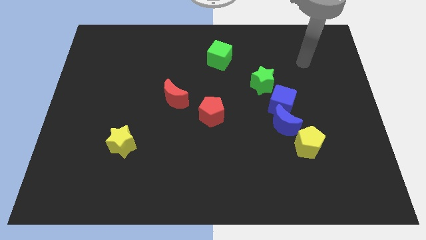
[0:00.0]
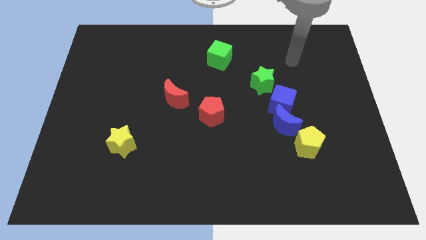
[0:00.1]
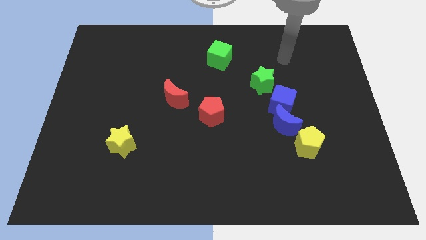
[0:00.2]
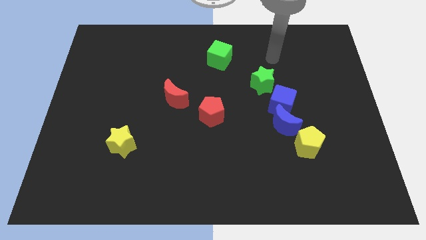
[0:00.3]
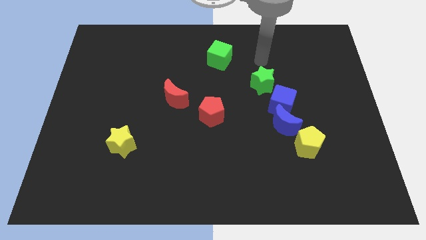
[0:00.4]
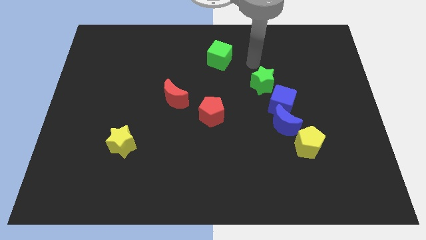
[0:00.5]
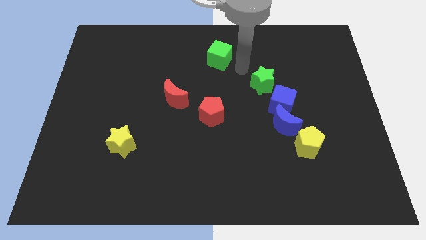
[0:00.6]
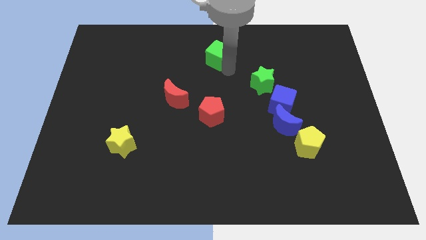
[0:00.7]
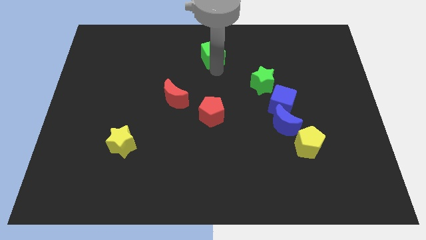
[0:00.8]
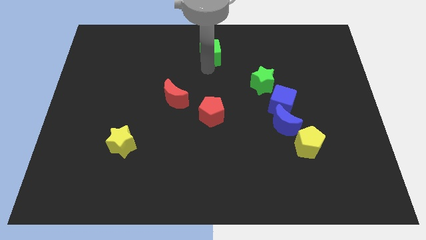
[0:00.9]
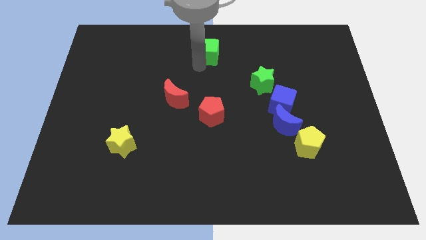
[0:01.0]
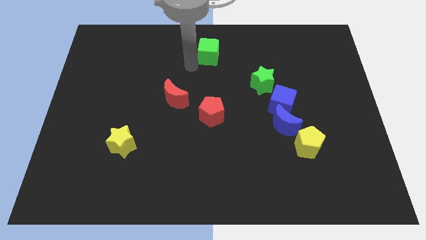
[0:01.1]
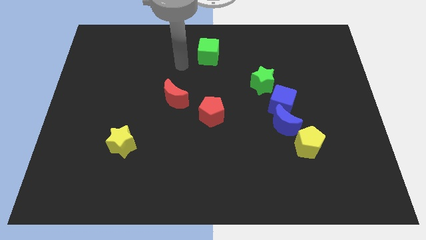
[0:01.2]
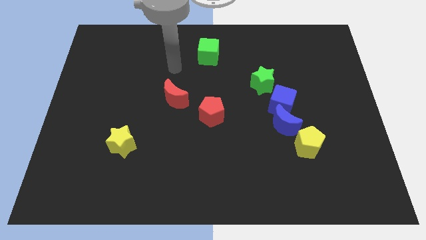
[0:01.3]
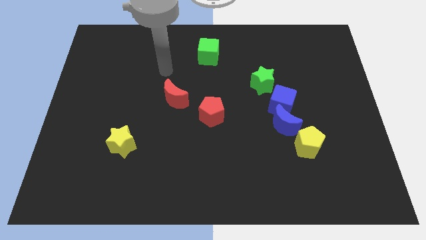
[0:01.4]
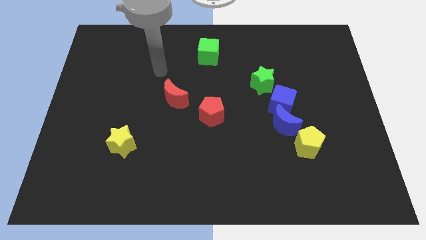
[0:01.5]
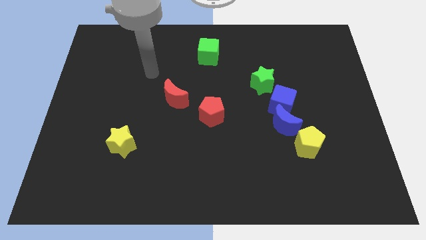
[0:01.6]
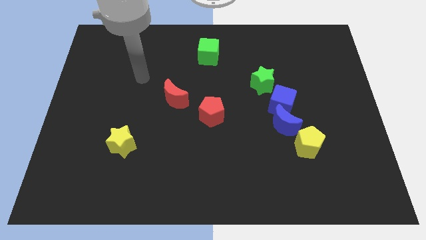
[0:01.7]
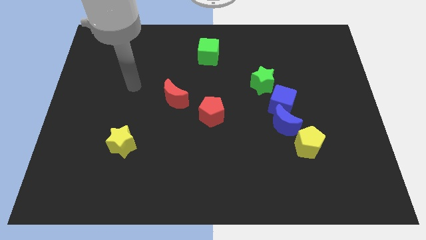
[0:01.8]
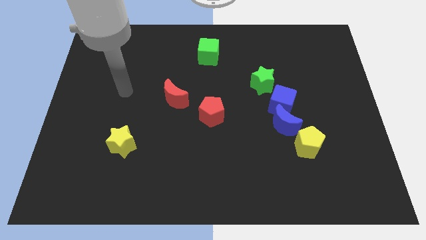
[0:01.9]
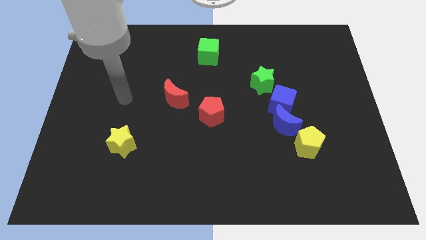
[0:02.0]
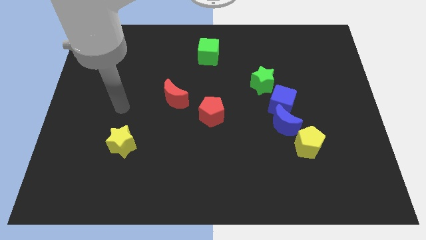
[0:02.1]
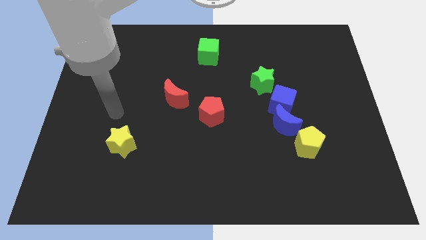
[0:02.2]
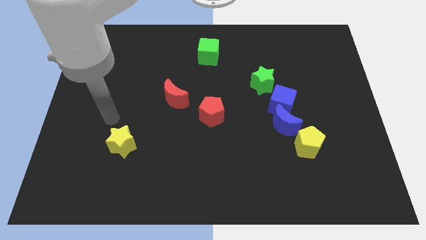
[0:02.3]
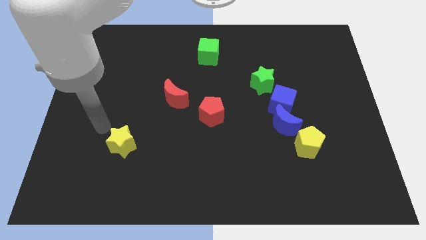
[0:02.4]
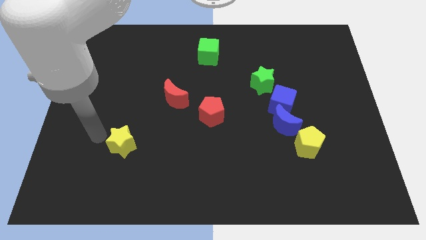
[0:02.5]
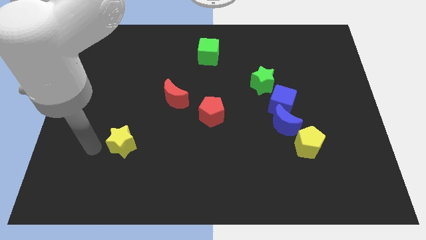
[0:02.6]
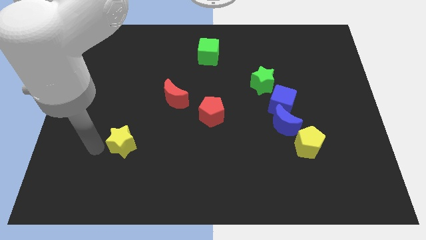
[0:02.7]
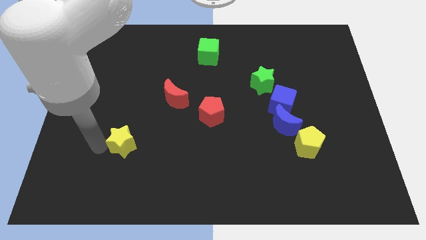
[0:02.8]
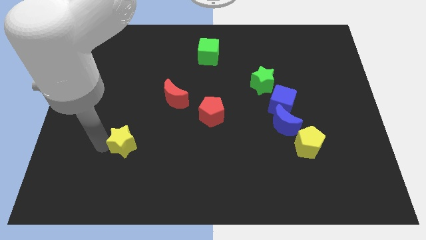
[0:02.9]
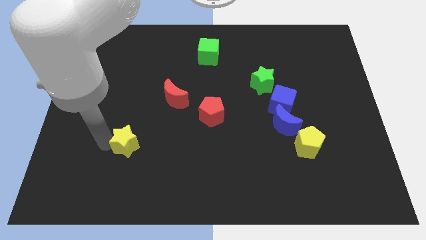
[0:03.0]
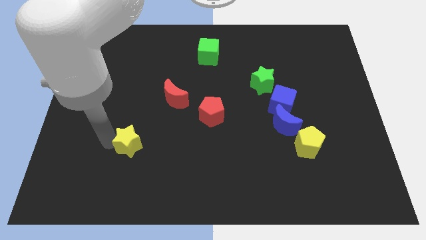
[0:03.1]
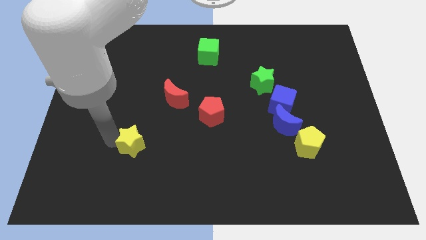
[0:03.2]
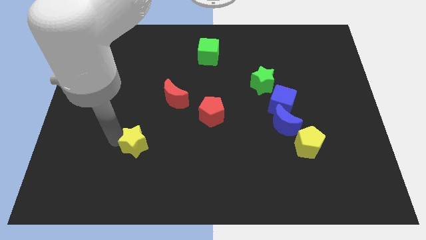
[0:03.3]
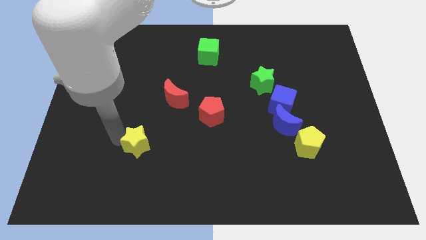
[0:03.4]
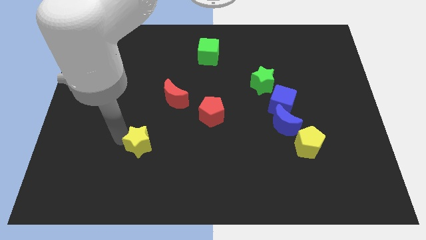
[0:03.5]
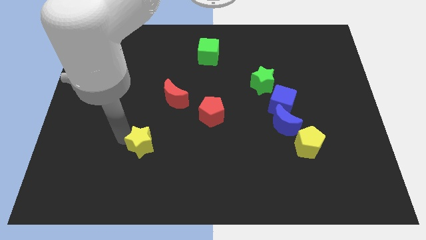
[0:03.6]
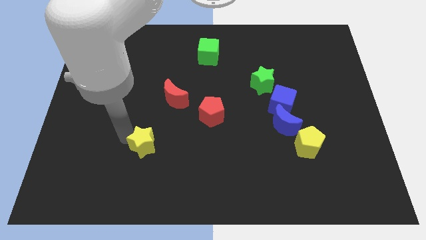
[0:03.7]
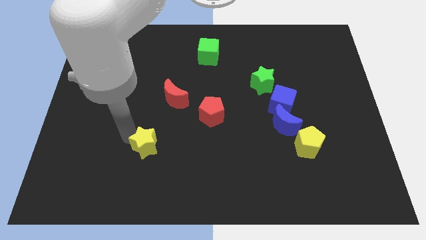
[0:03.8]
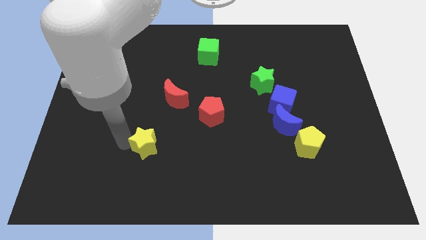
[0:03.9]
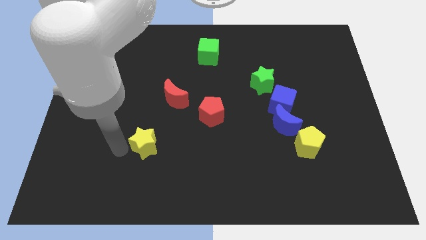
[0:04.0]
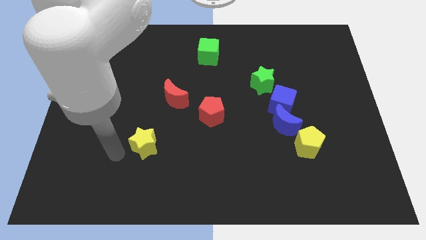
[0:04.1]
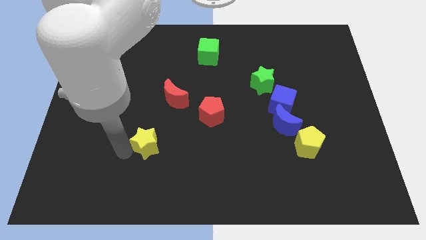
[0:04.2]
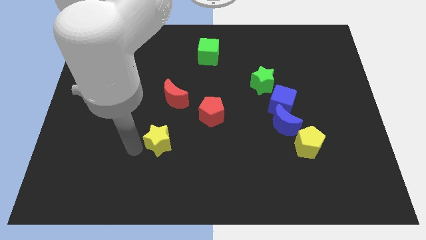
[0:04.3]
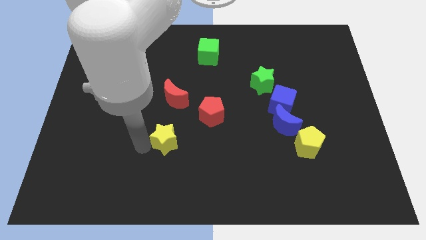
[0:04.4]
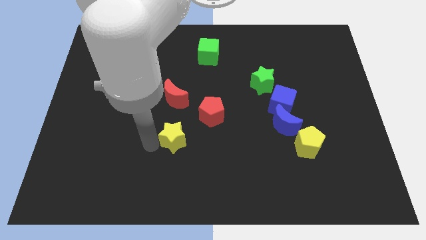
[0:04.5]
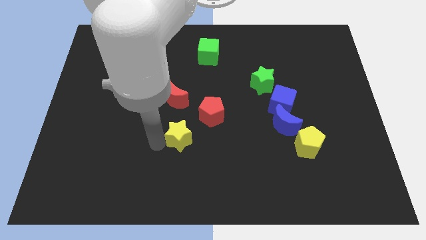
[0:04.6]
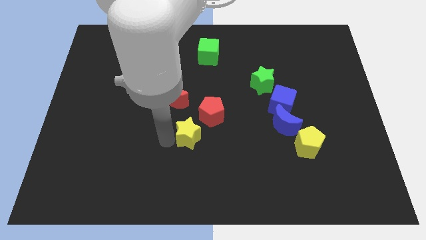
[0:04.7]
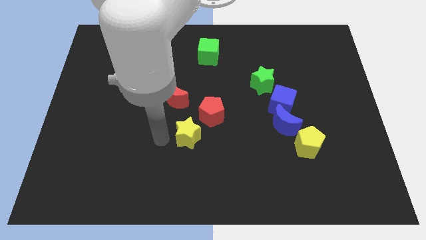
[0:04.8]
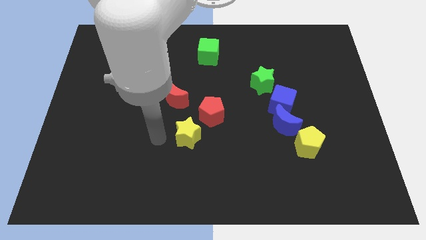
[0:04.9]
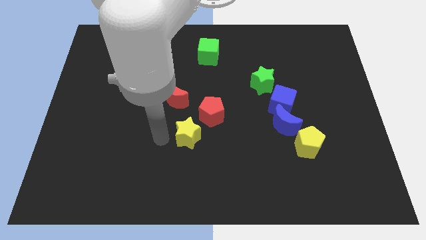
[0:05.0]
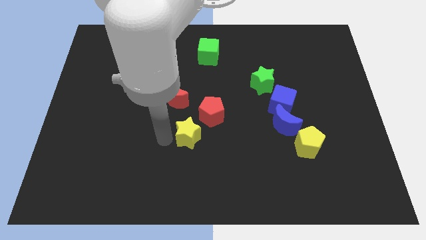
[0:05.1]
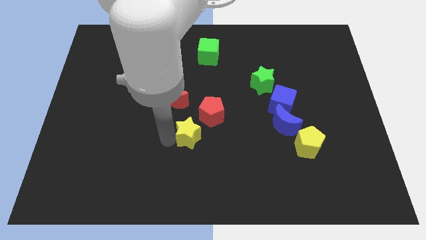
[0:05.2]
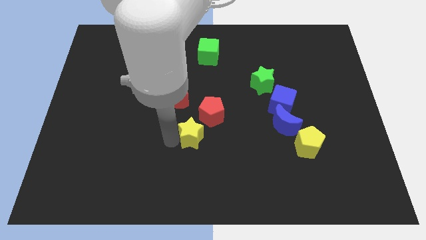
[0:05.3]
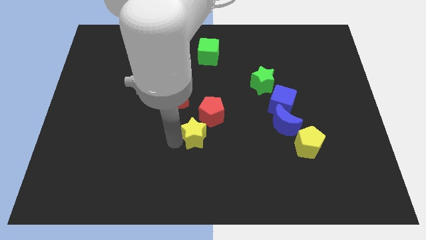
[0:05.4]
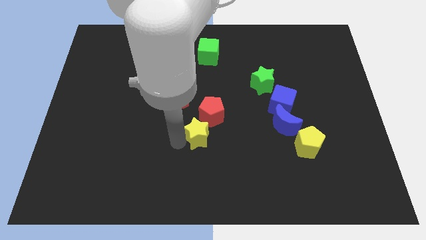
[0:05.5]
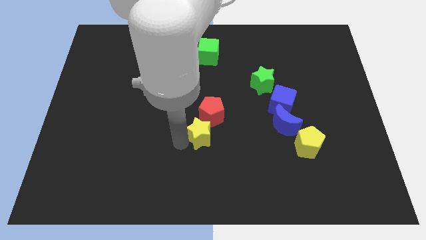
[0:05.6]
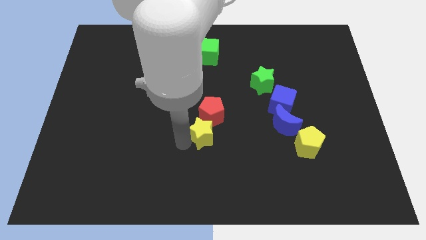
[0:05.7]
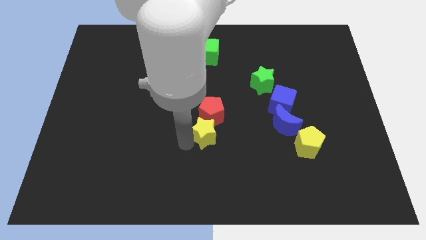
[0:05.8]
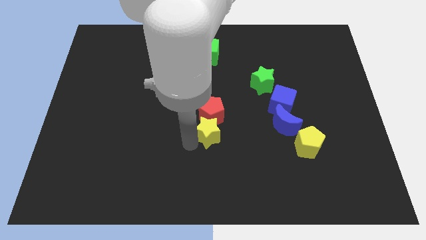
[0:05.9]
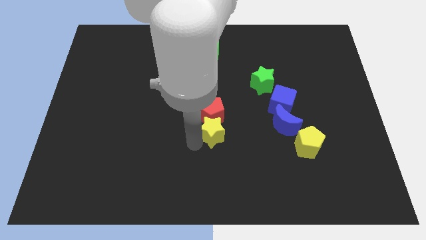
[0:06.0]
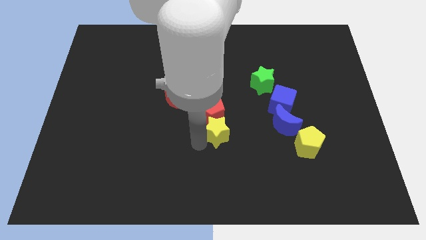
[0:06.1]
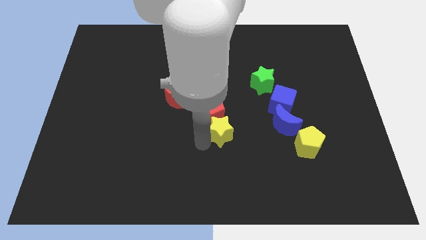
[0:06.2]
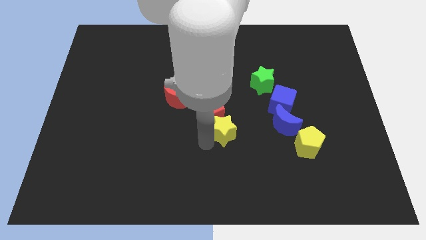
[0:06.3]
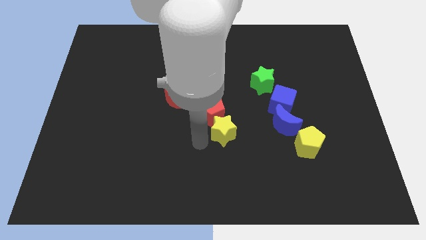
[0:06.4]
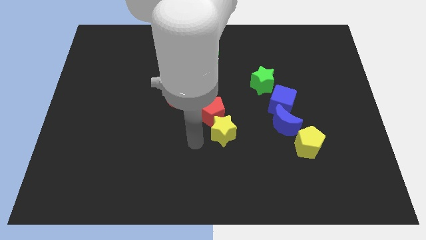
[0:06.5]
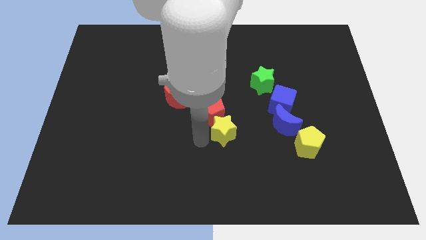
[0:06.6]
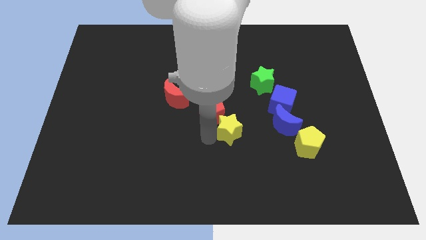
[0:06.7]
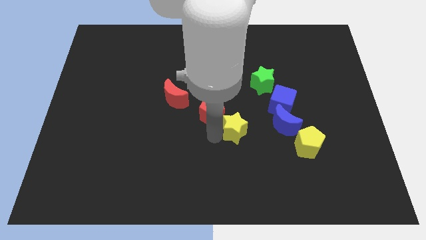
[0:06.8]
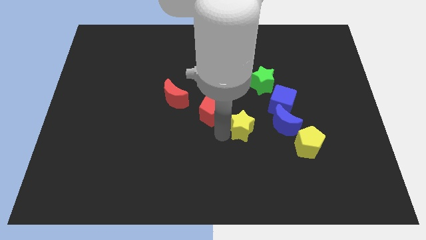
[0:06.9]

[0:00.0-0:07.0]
put the yellow star to the bottom left of the blue cube
